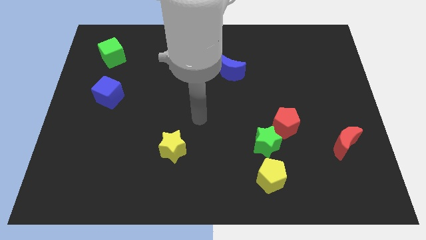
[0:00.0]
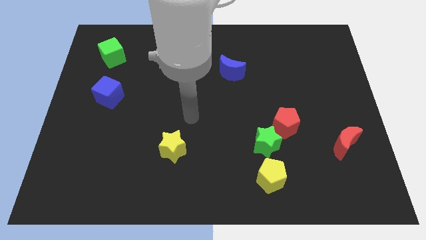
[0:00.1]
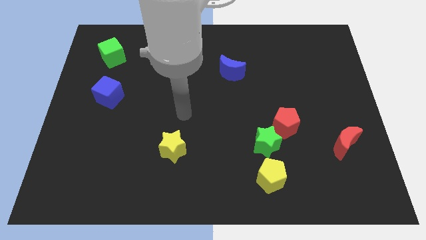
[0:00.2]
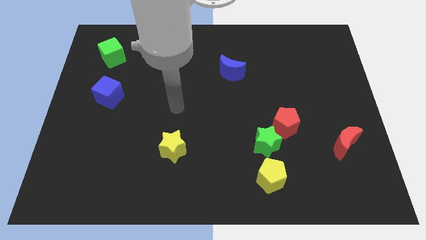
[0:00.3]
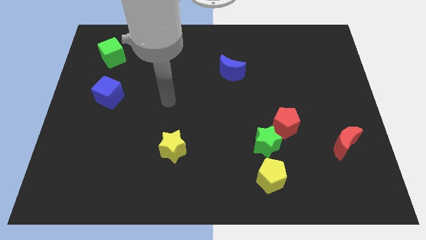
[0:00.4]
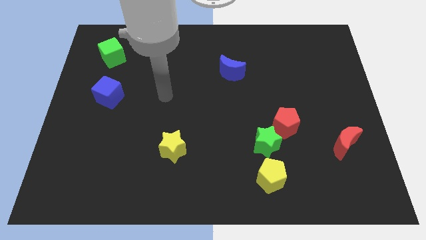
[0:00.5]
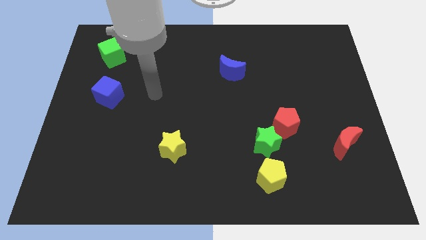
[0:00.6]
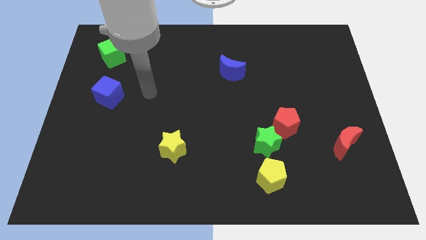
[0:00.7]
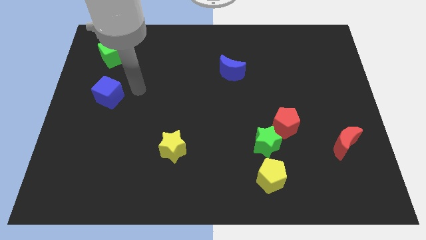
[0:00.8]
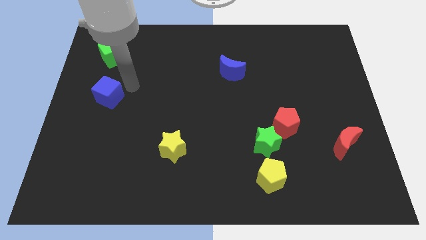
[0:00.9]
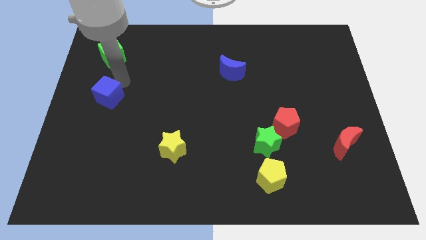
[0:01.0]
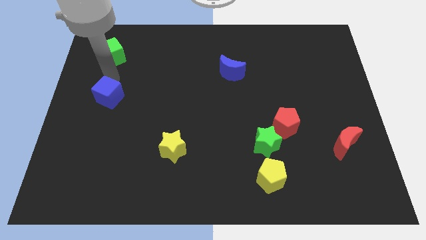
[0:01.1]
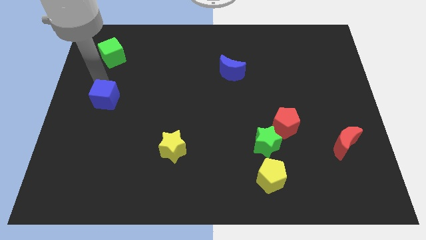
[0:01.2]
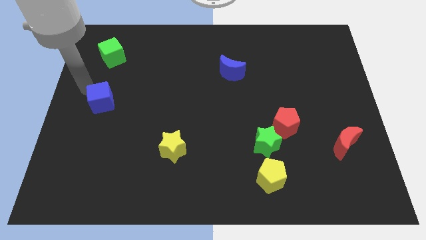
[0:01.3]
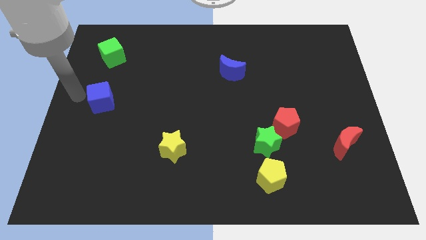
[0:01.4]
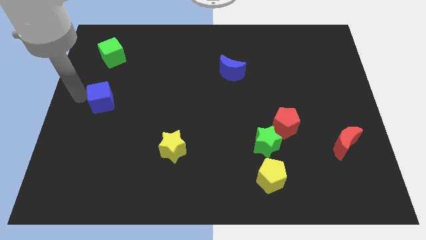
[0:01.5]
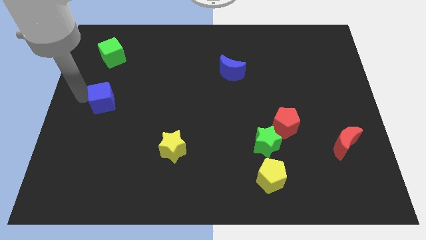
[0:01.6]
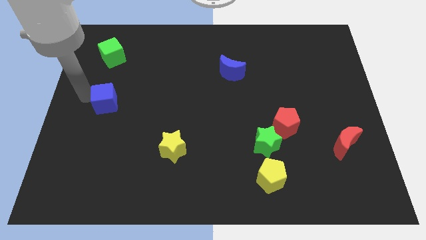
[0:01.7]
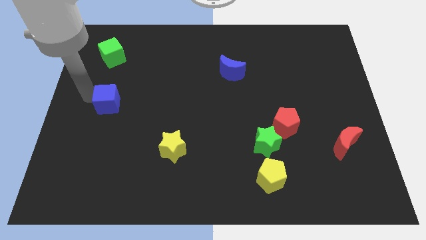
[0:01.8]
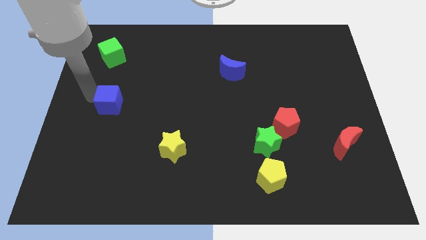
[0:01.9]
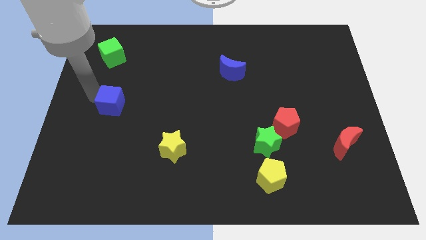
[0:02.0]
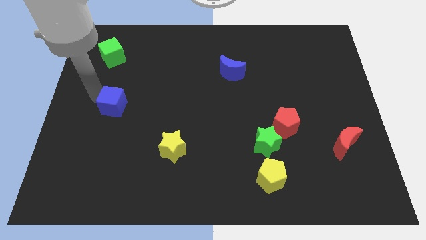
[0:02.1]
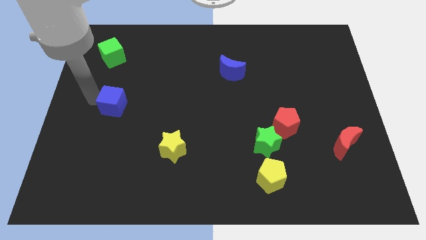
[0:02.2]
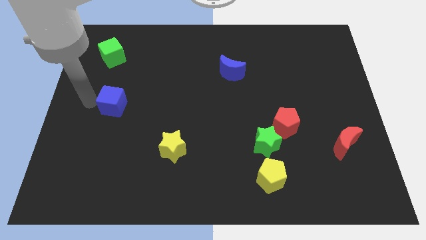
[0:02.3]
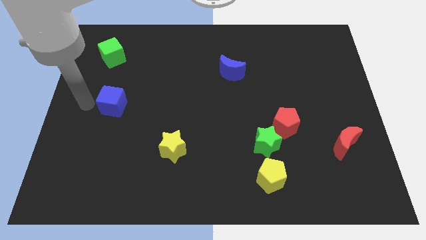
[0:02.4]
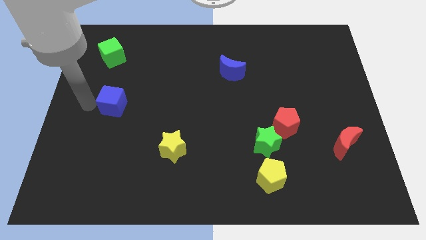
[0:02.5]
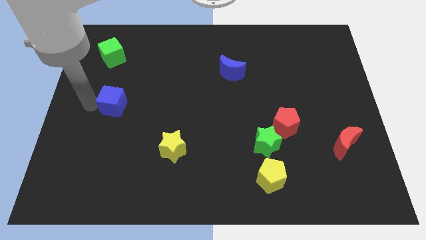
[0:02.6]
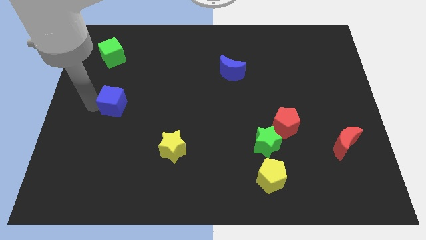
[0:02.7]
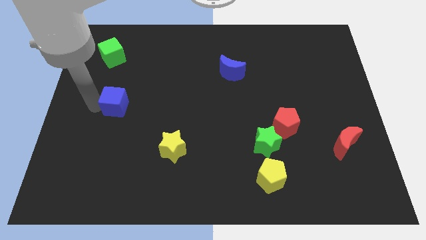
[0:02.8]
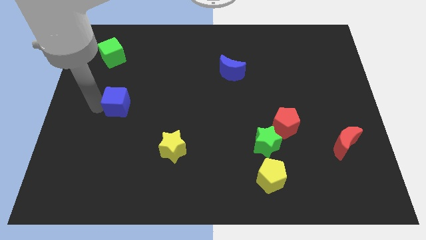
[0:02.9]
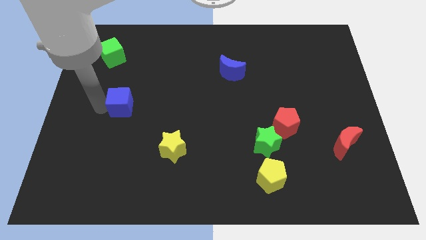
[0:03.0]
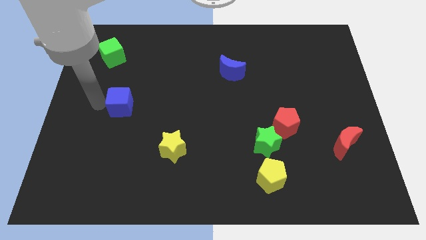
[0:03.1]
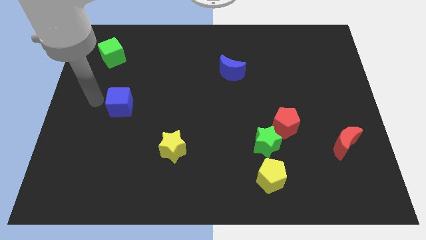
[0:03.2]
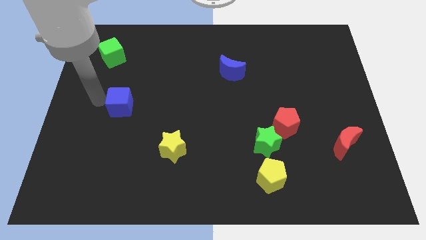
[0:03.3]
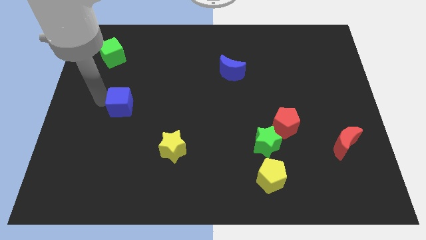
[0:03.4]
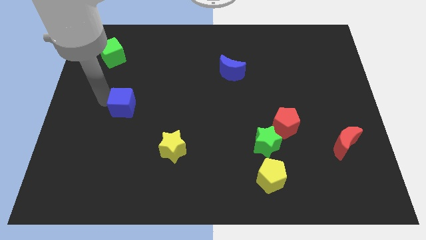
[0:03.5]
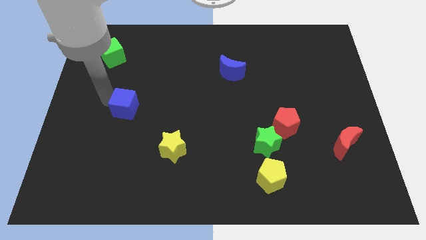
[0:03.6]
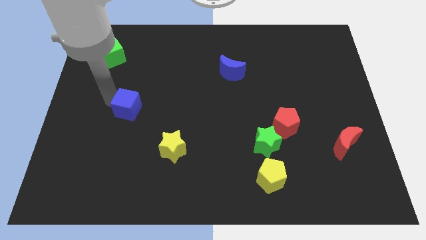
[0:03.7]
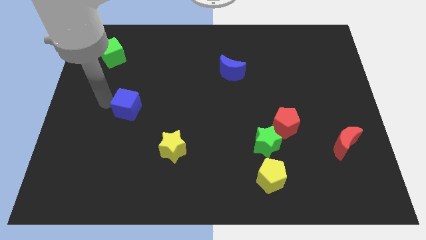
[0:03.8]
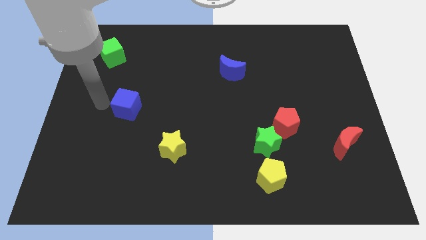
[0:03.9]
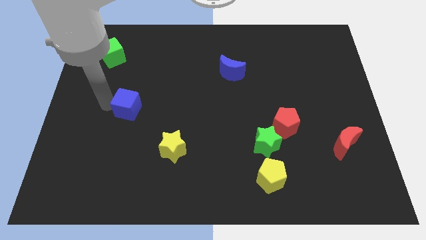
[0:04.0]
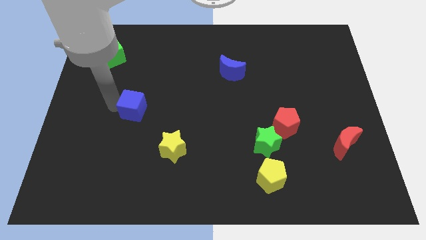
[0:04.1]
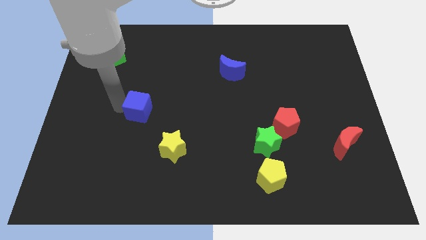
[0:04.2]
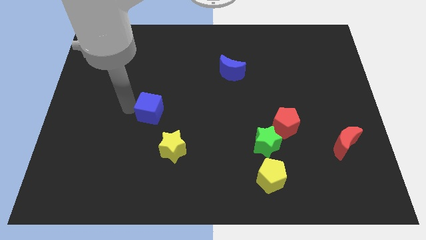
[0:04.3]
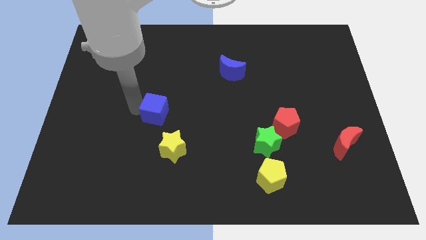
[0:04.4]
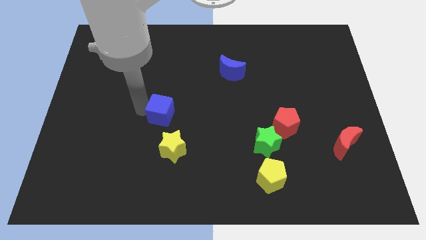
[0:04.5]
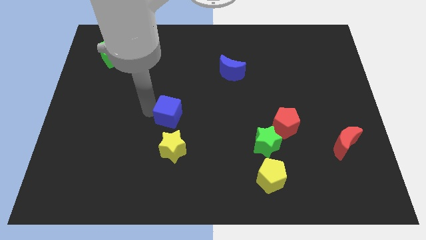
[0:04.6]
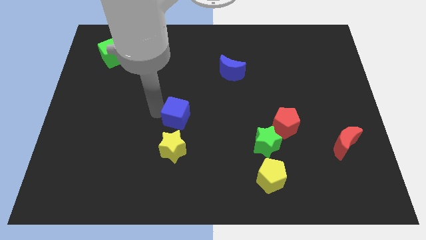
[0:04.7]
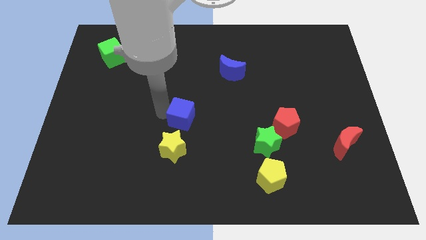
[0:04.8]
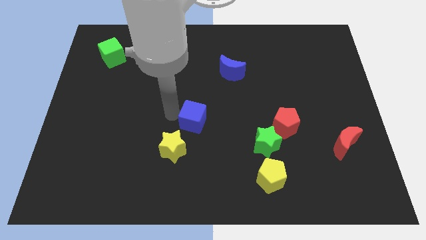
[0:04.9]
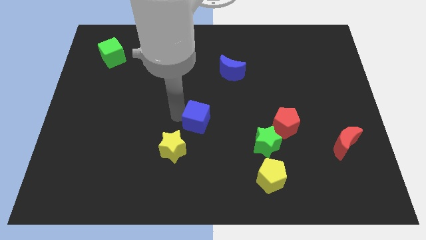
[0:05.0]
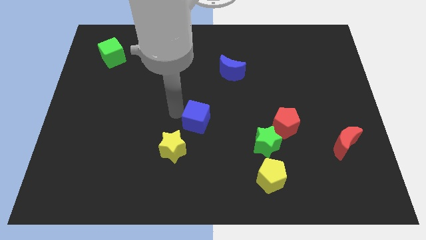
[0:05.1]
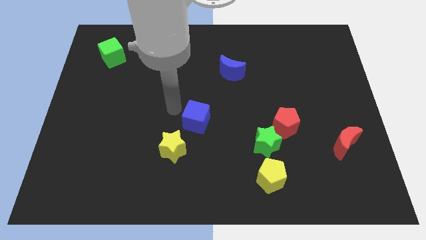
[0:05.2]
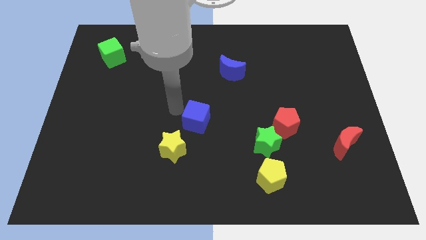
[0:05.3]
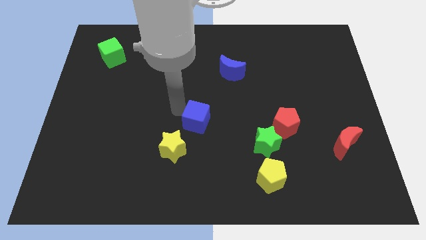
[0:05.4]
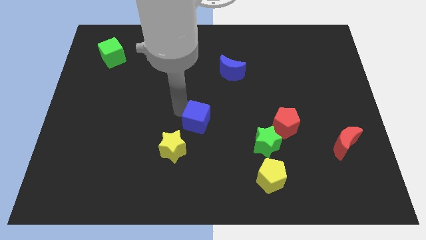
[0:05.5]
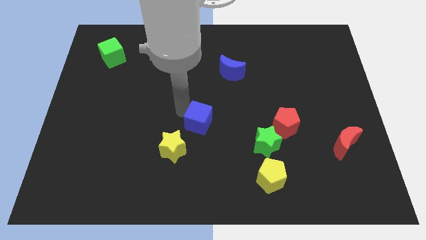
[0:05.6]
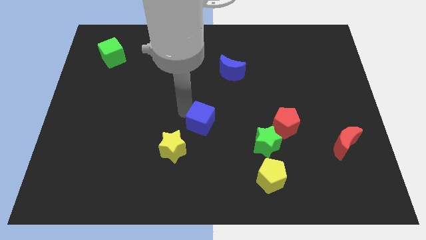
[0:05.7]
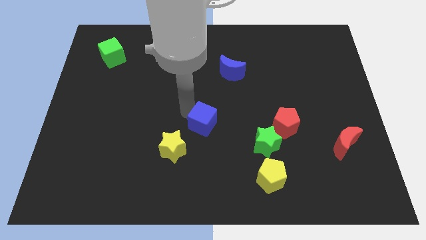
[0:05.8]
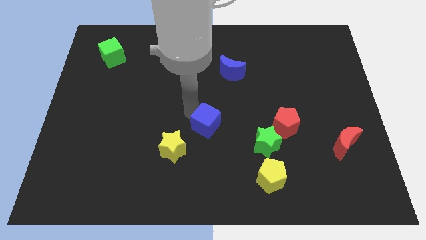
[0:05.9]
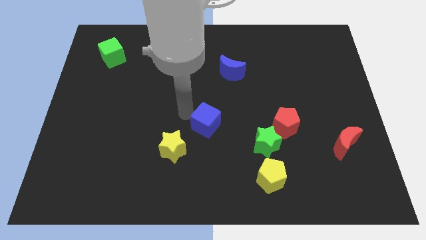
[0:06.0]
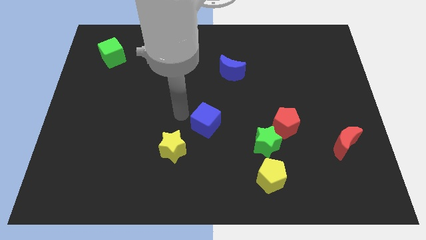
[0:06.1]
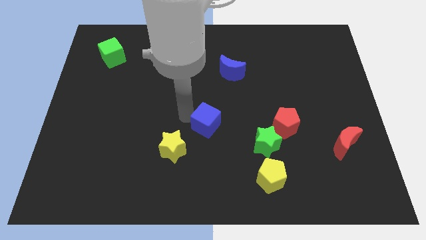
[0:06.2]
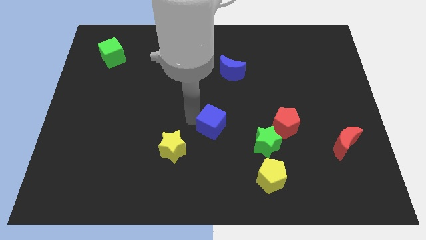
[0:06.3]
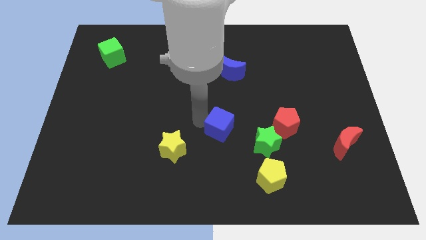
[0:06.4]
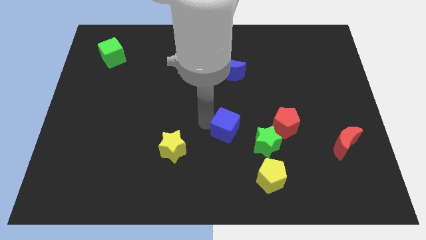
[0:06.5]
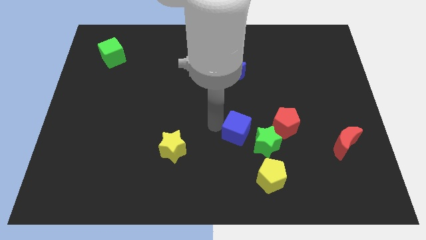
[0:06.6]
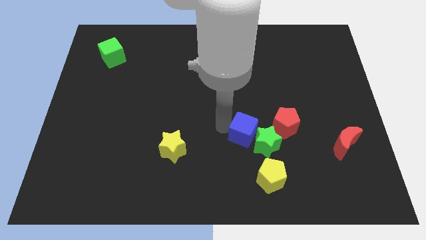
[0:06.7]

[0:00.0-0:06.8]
put the blue cube to the green star

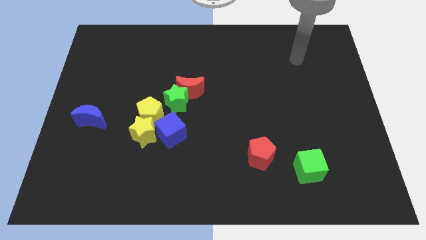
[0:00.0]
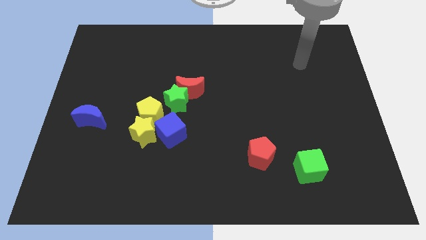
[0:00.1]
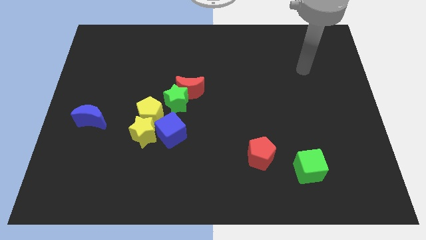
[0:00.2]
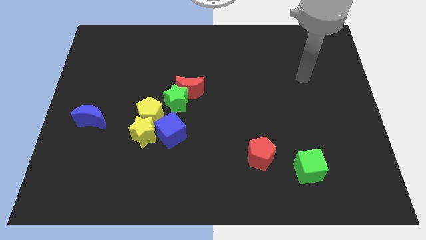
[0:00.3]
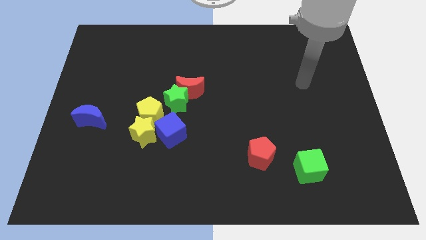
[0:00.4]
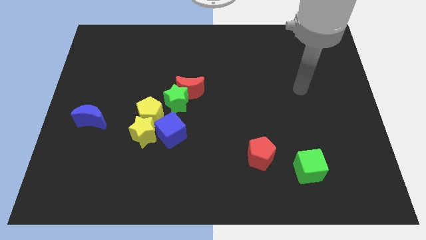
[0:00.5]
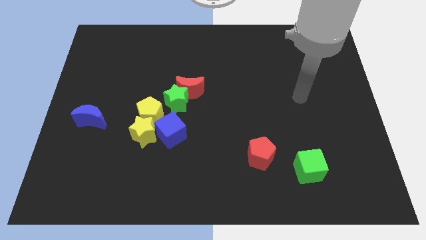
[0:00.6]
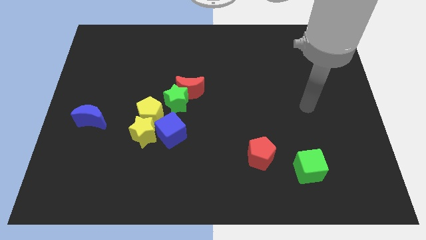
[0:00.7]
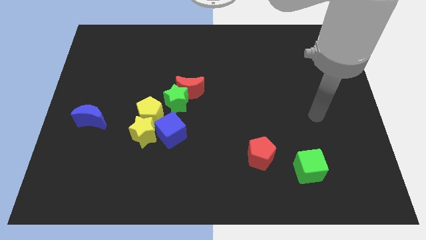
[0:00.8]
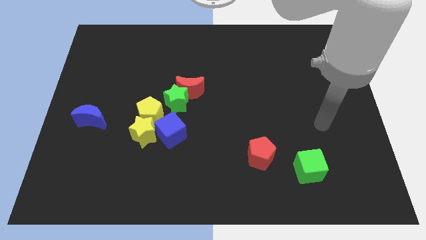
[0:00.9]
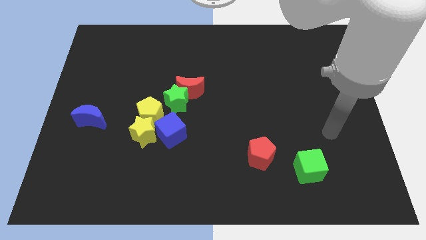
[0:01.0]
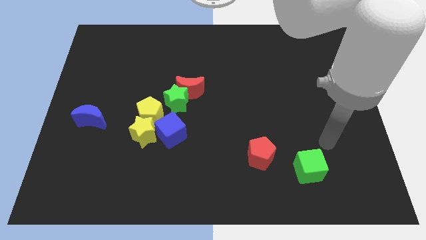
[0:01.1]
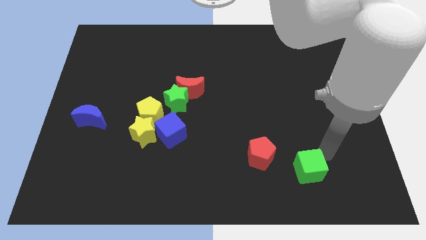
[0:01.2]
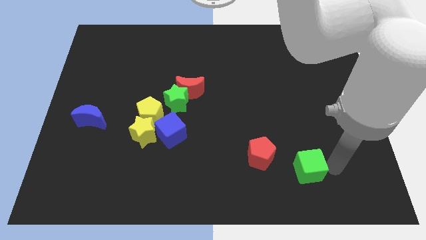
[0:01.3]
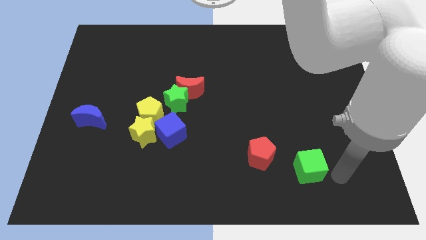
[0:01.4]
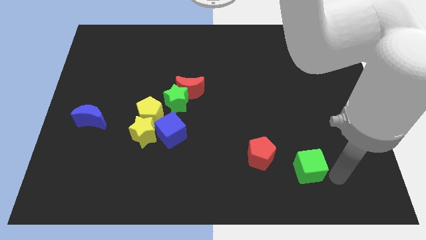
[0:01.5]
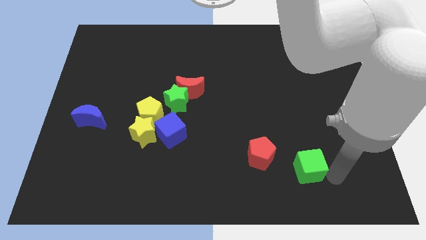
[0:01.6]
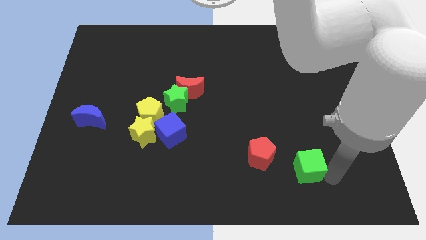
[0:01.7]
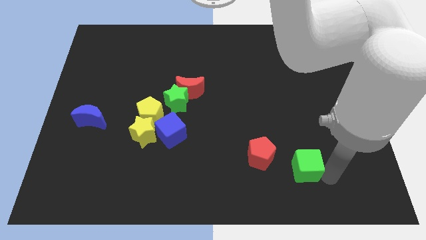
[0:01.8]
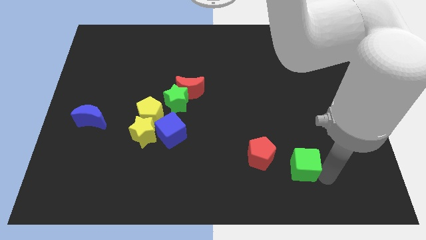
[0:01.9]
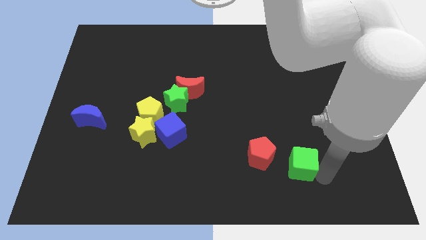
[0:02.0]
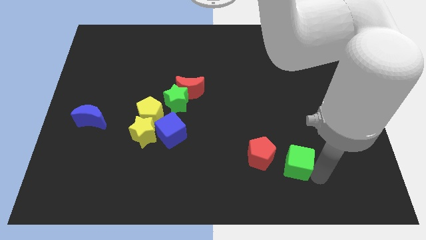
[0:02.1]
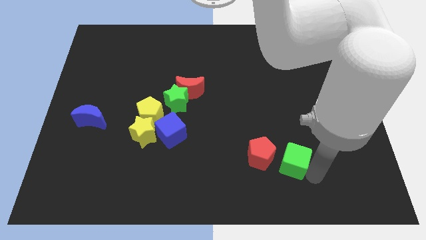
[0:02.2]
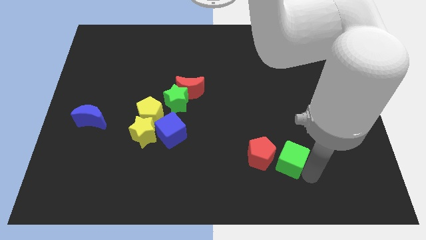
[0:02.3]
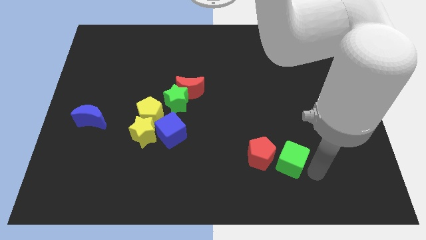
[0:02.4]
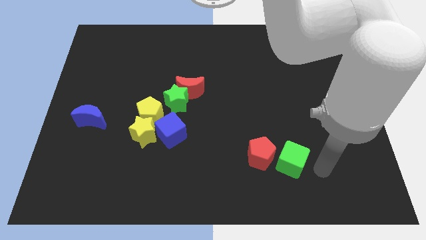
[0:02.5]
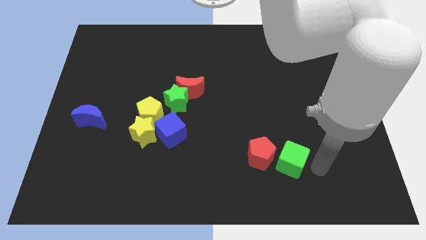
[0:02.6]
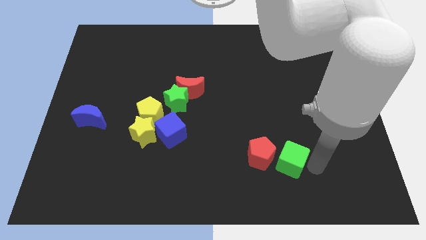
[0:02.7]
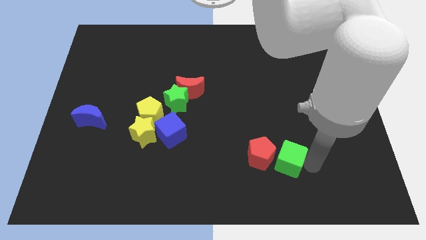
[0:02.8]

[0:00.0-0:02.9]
push the green cube towards the red pentagon
